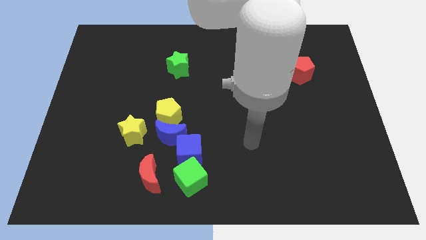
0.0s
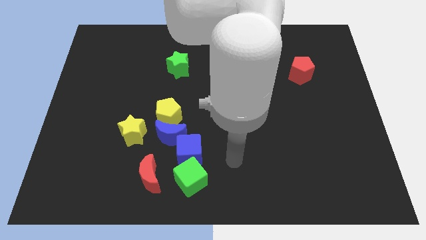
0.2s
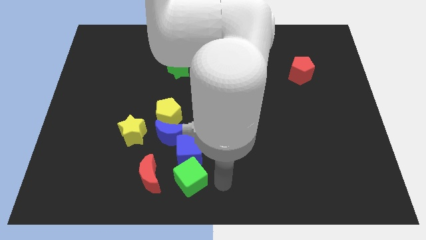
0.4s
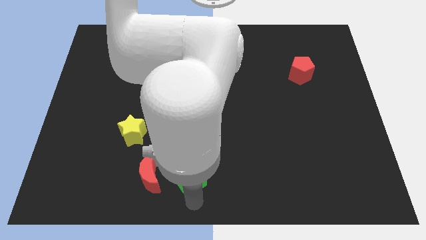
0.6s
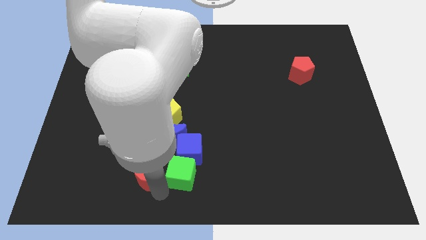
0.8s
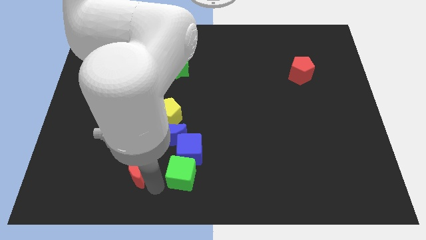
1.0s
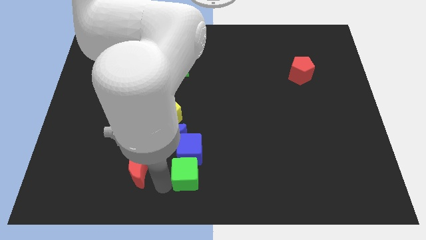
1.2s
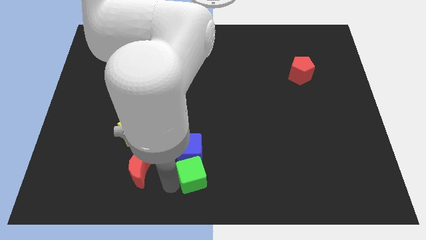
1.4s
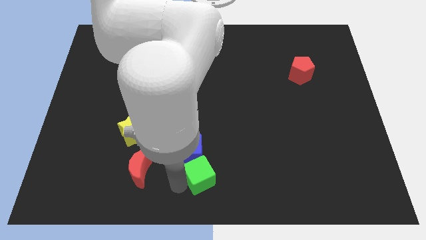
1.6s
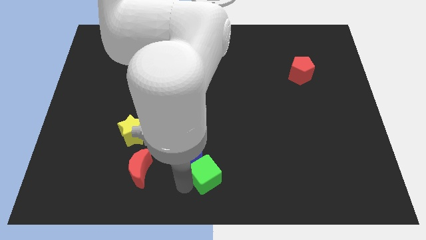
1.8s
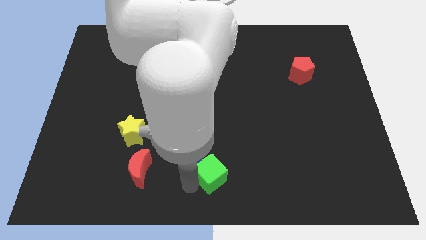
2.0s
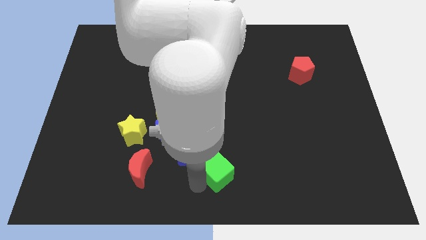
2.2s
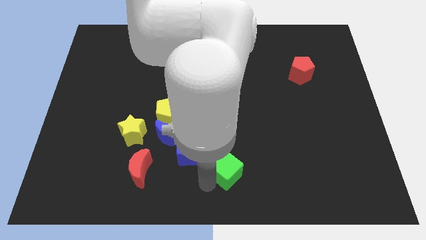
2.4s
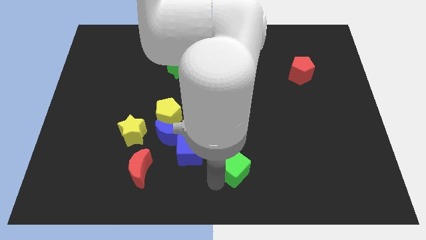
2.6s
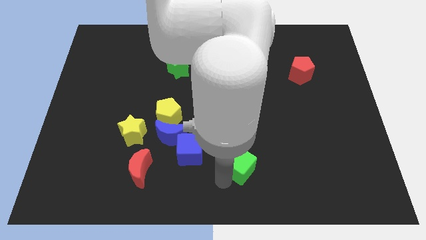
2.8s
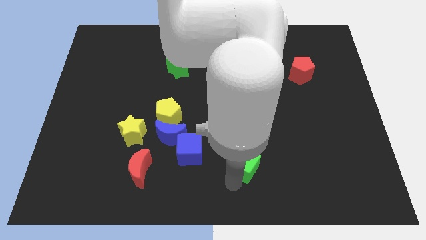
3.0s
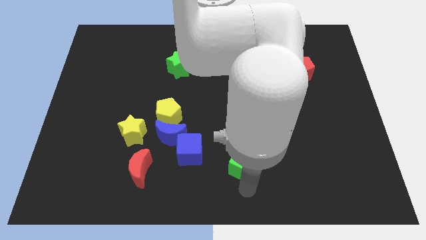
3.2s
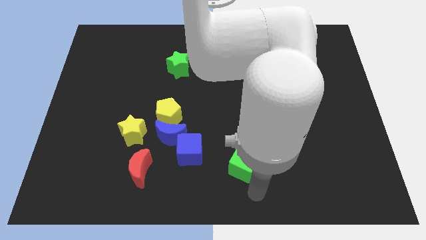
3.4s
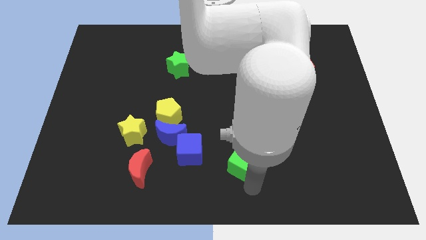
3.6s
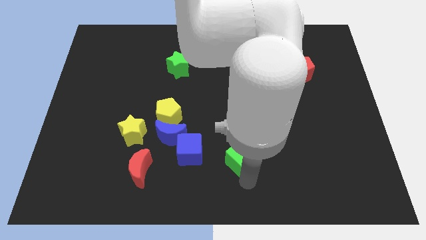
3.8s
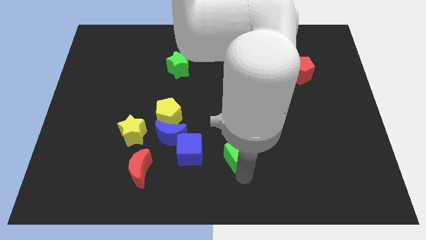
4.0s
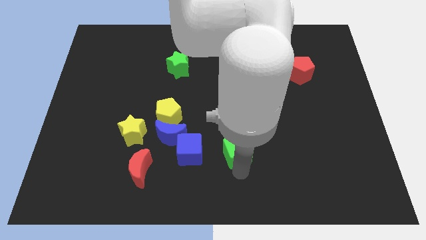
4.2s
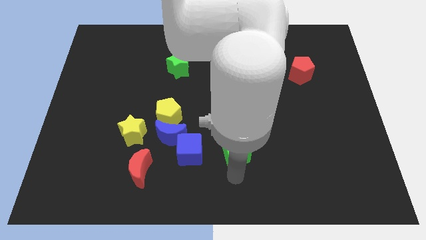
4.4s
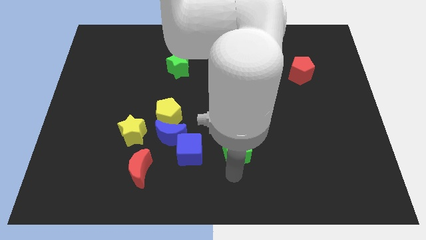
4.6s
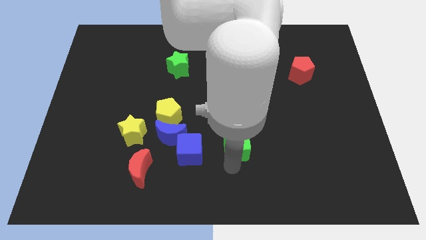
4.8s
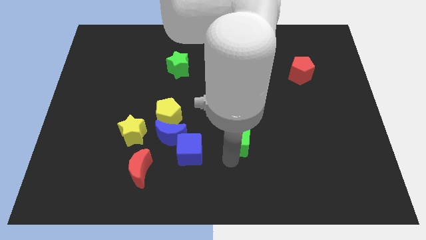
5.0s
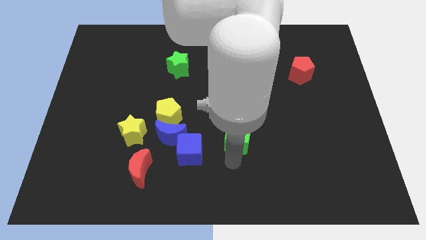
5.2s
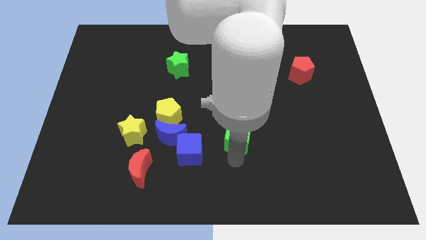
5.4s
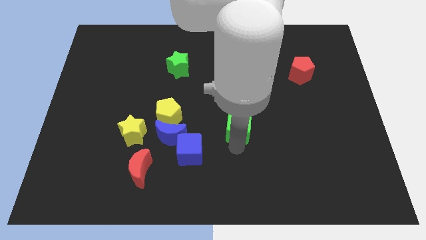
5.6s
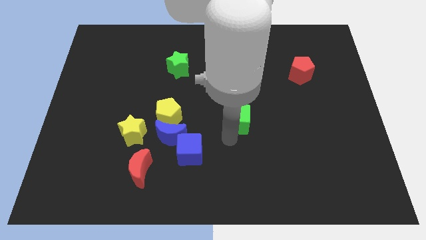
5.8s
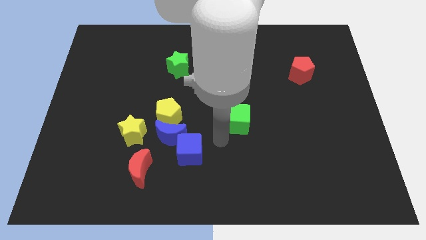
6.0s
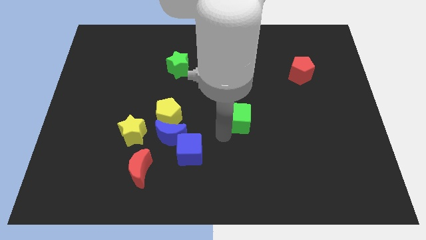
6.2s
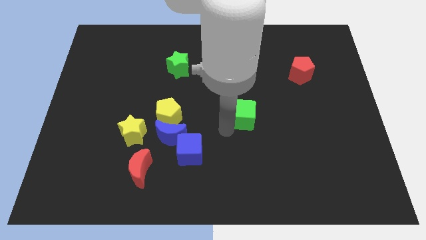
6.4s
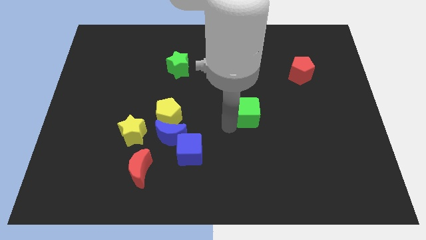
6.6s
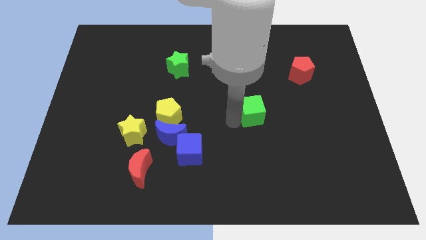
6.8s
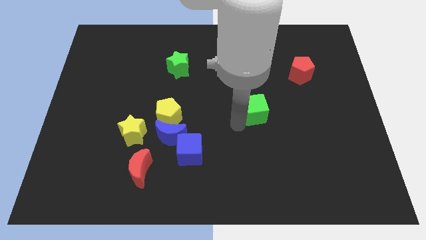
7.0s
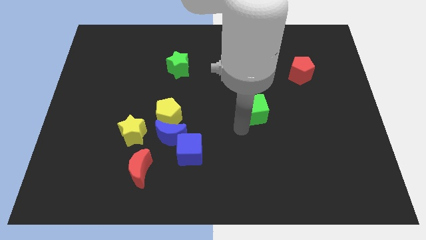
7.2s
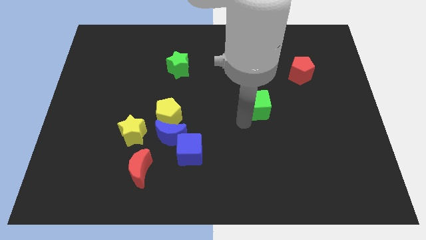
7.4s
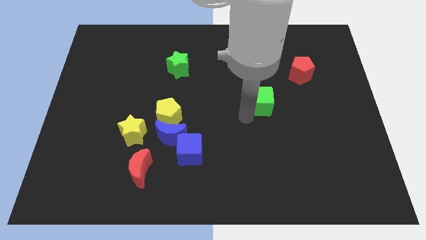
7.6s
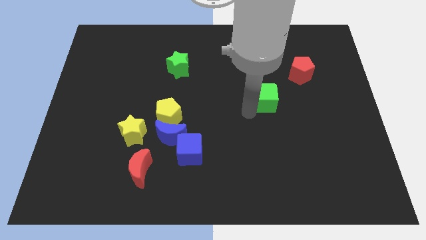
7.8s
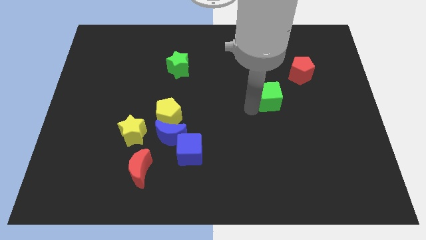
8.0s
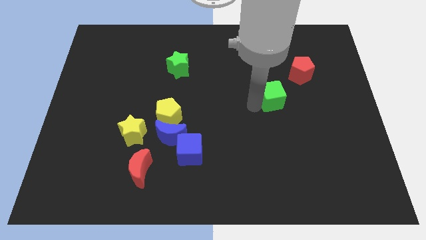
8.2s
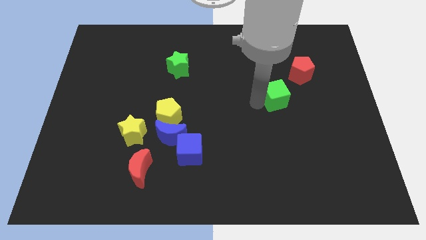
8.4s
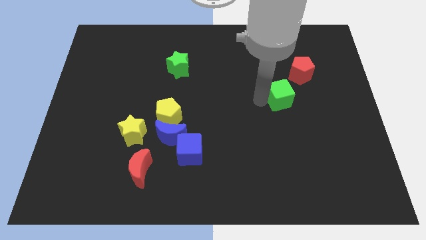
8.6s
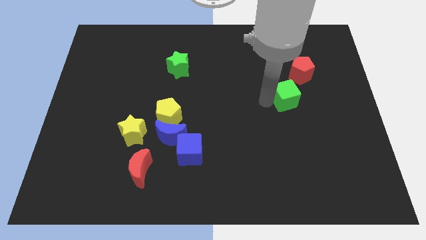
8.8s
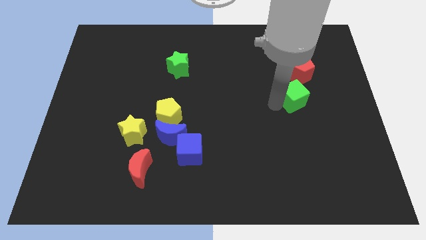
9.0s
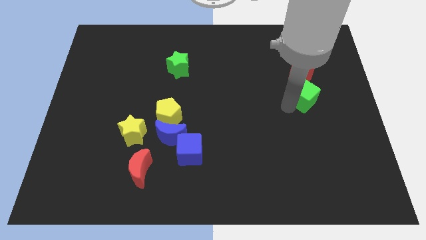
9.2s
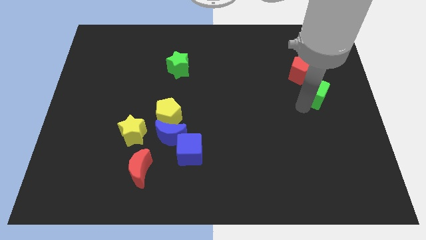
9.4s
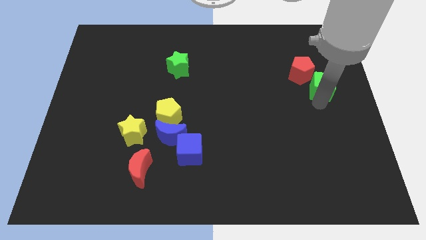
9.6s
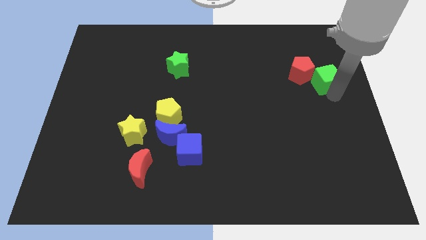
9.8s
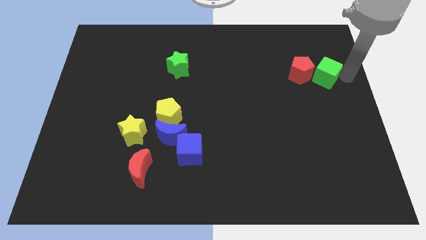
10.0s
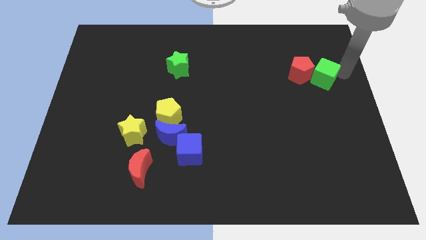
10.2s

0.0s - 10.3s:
move the green cube next to the red pentagon

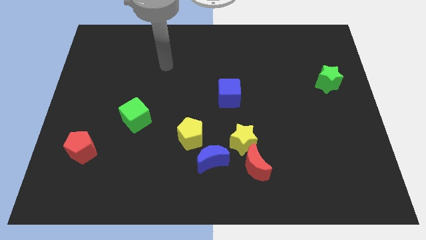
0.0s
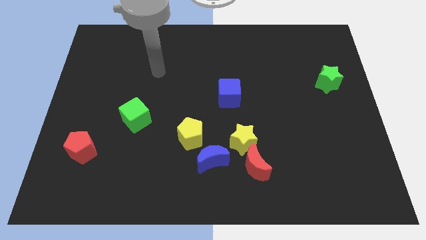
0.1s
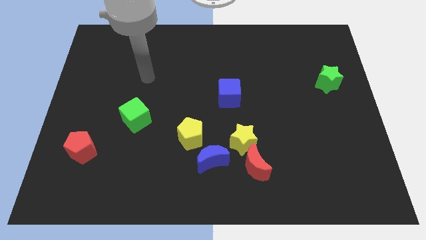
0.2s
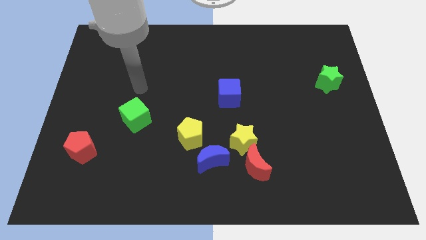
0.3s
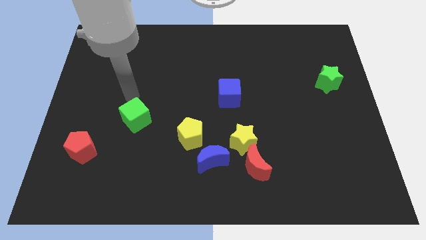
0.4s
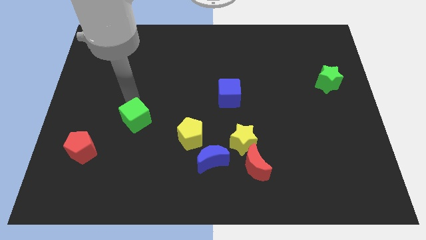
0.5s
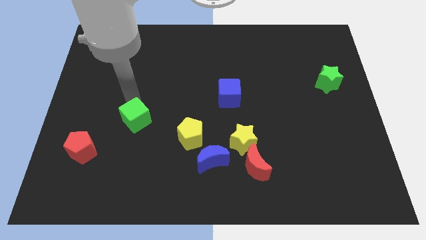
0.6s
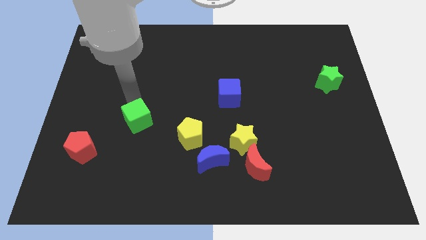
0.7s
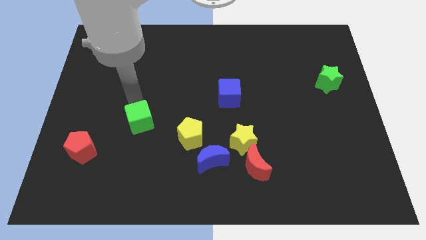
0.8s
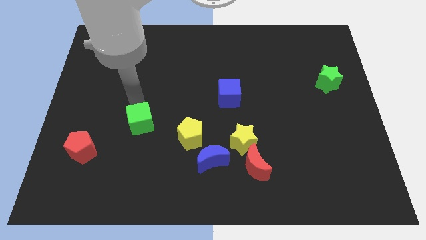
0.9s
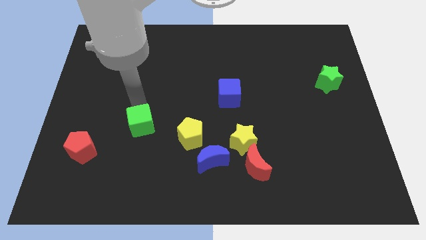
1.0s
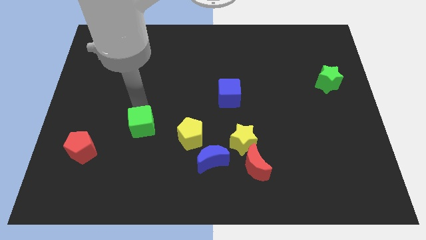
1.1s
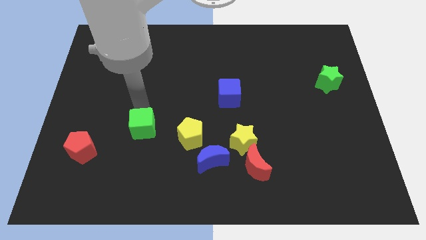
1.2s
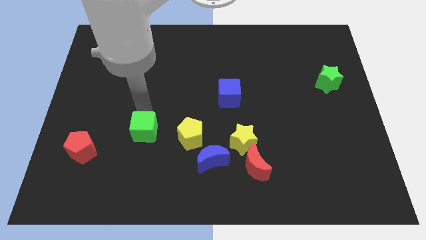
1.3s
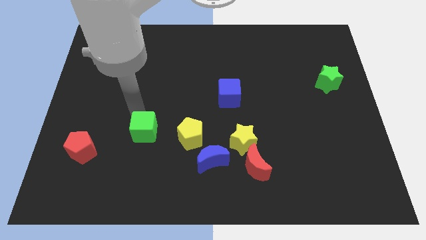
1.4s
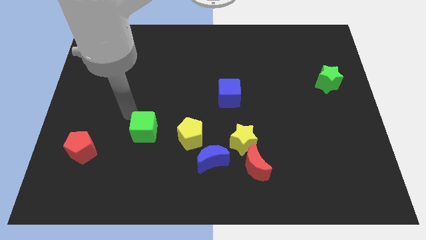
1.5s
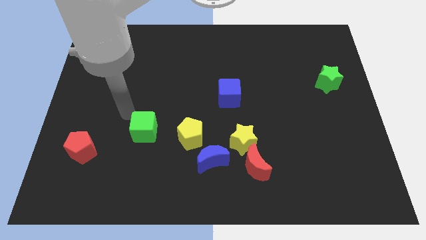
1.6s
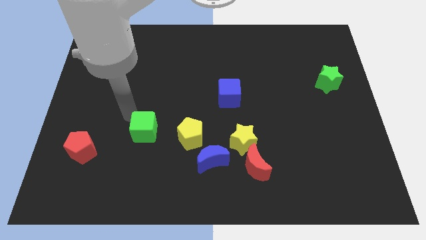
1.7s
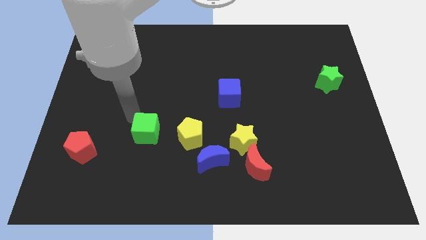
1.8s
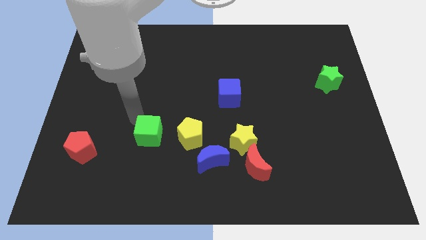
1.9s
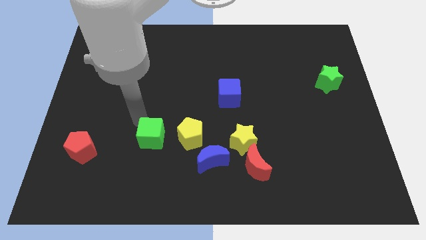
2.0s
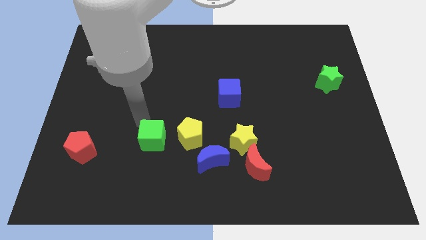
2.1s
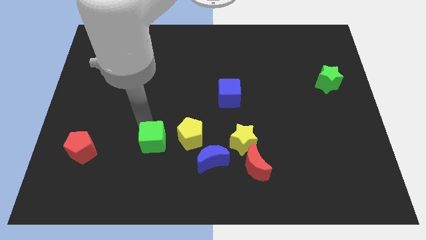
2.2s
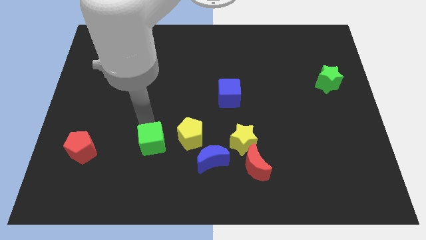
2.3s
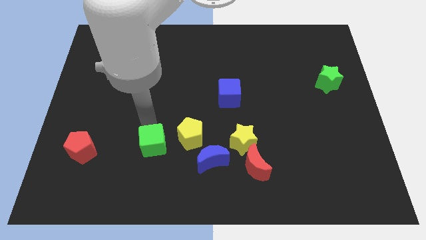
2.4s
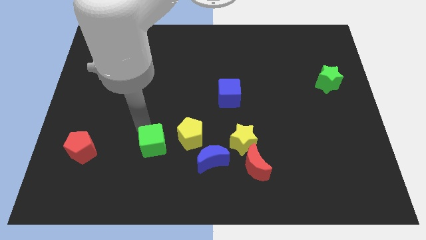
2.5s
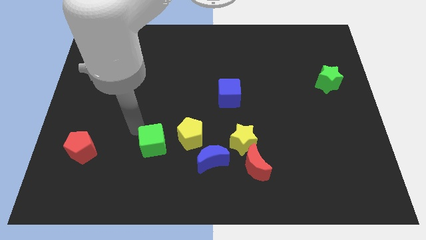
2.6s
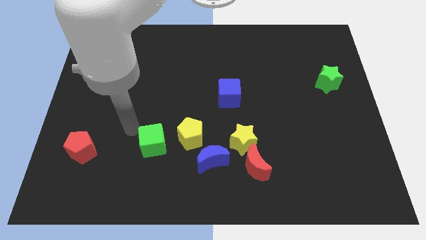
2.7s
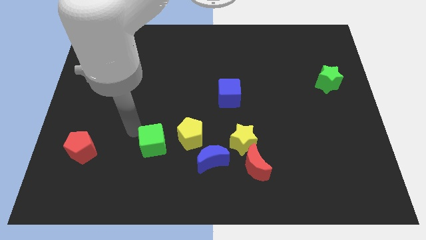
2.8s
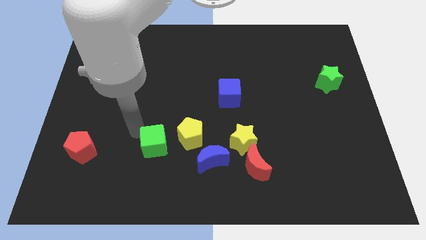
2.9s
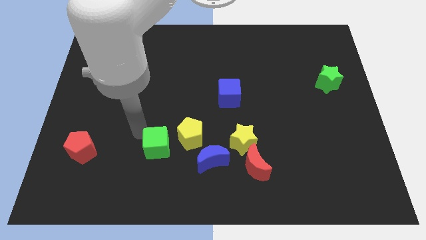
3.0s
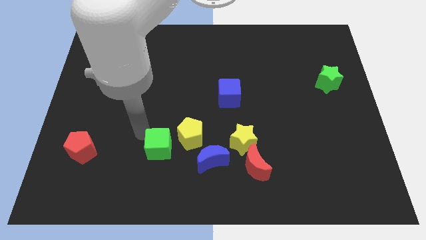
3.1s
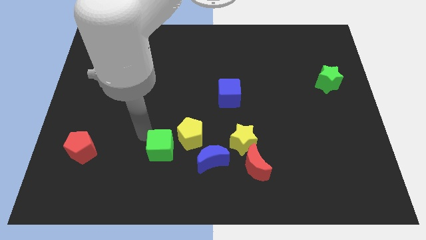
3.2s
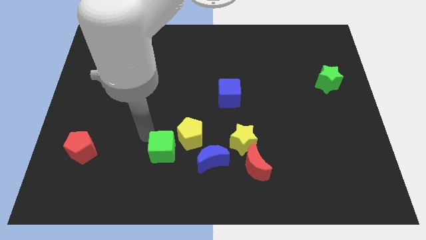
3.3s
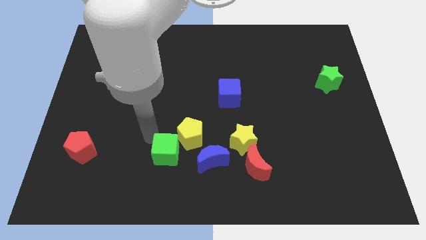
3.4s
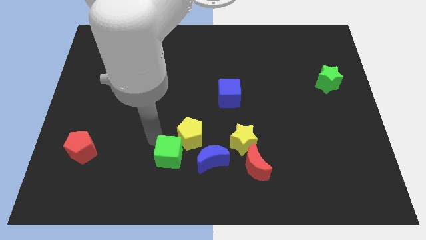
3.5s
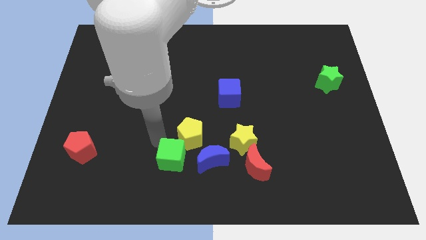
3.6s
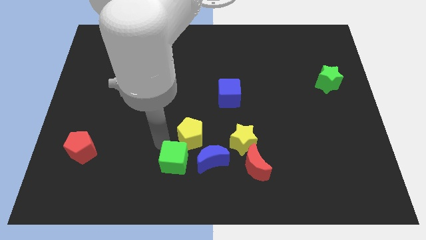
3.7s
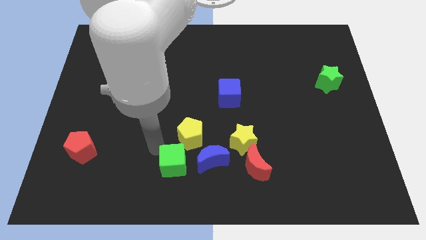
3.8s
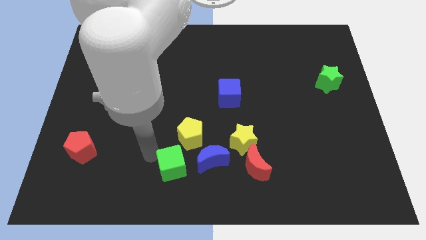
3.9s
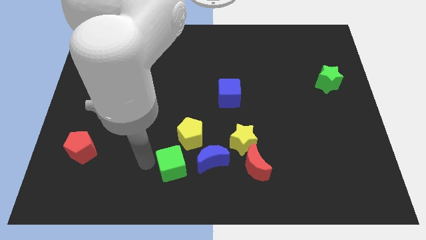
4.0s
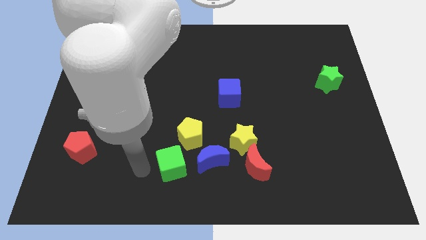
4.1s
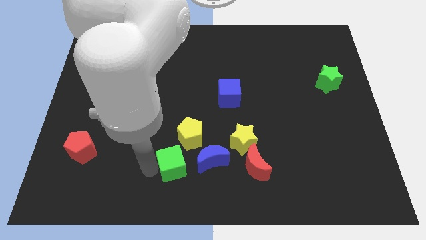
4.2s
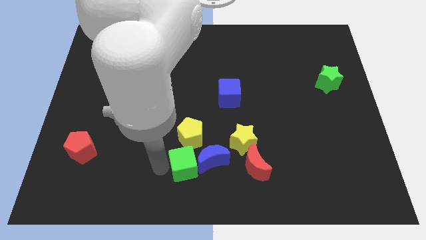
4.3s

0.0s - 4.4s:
slide the green cube next to the blue moon
